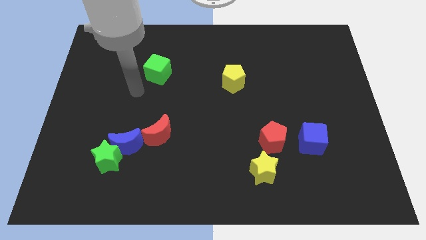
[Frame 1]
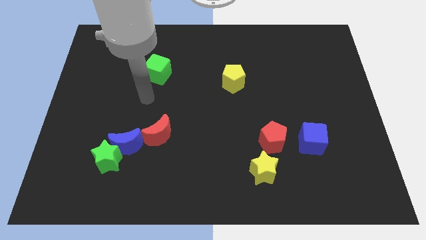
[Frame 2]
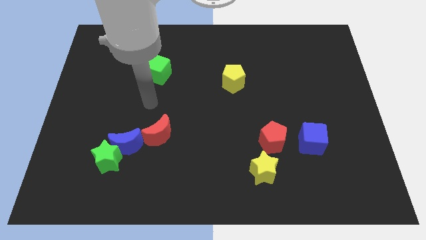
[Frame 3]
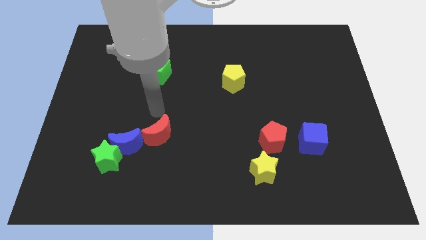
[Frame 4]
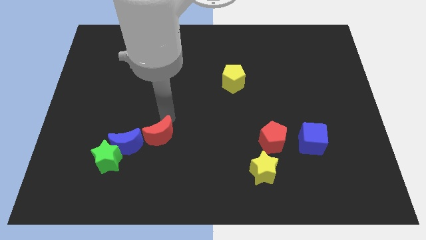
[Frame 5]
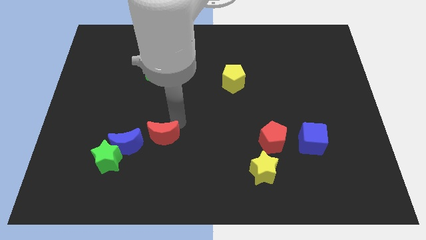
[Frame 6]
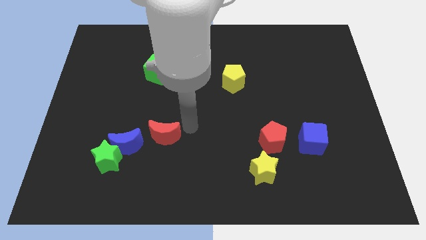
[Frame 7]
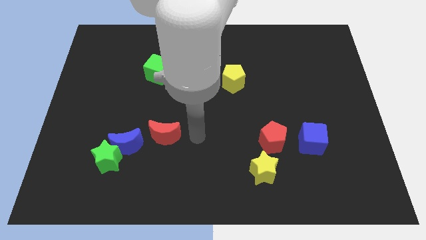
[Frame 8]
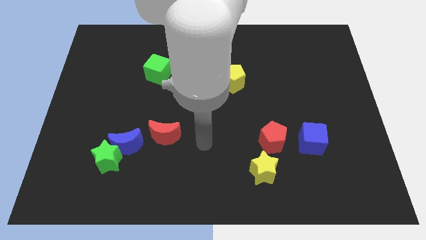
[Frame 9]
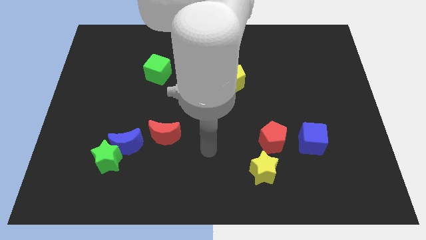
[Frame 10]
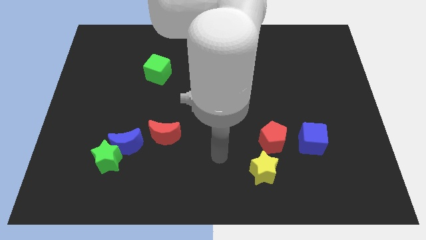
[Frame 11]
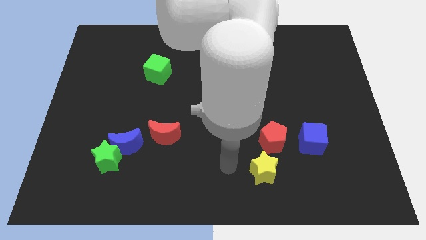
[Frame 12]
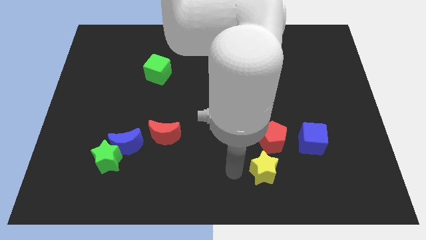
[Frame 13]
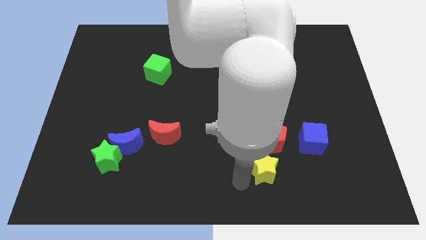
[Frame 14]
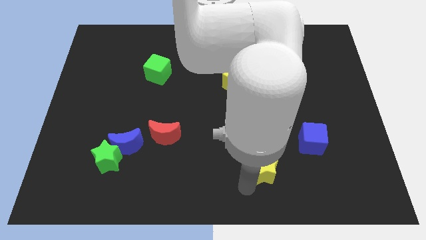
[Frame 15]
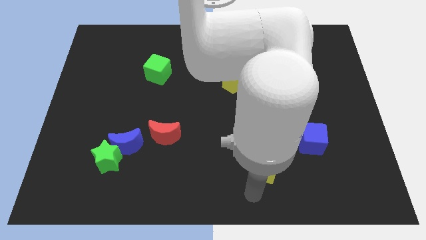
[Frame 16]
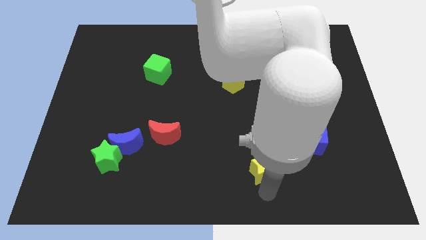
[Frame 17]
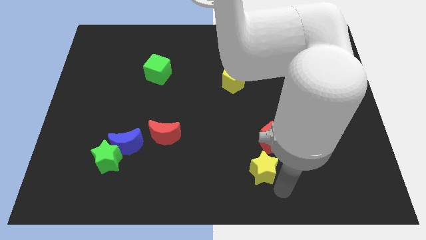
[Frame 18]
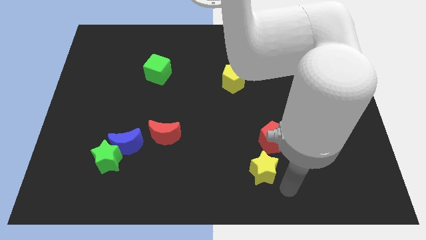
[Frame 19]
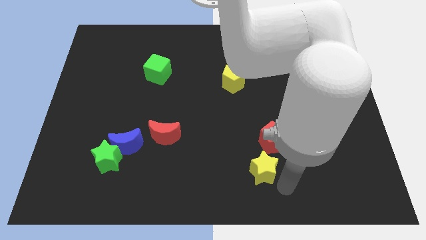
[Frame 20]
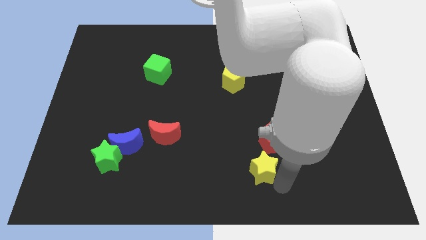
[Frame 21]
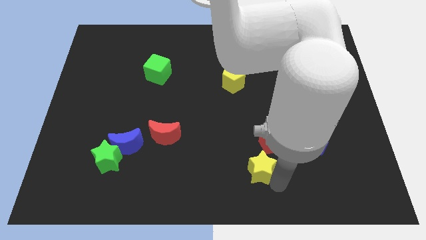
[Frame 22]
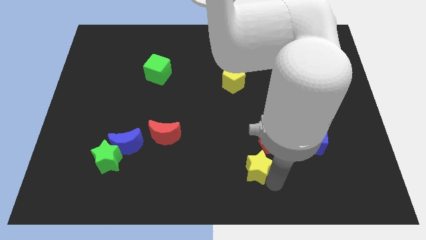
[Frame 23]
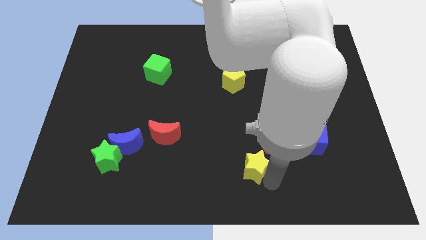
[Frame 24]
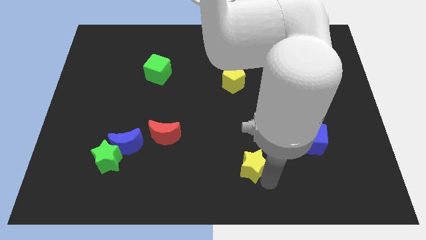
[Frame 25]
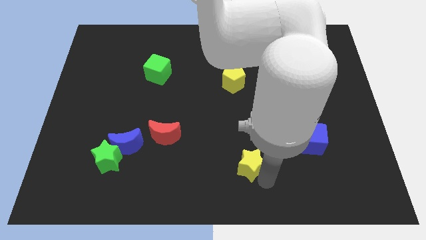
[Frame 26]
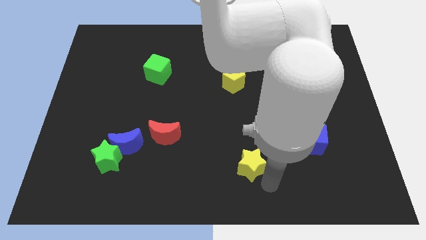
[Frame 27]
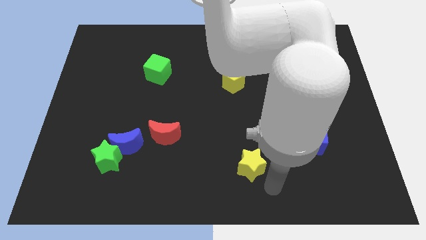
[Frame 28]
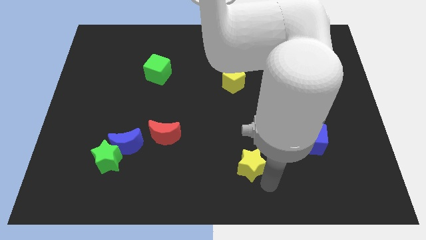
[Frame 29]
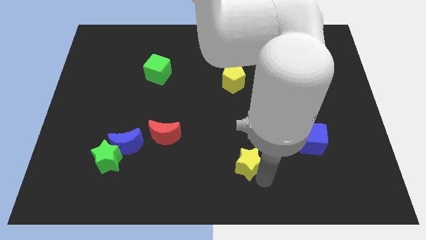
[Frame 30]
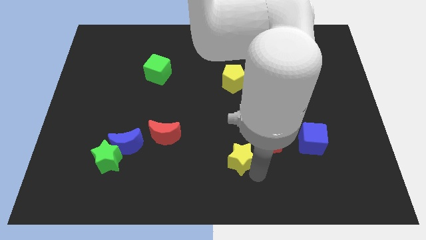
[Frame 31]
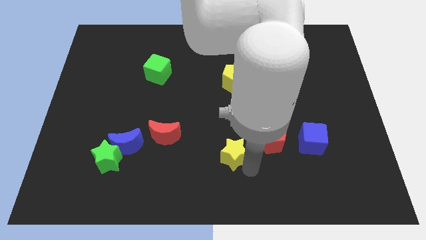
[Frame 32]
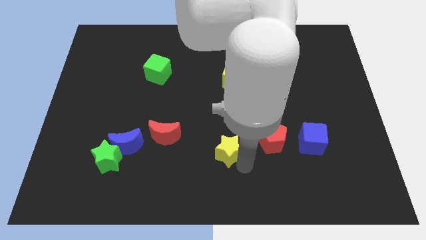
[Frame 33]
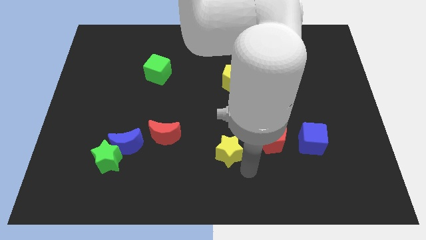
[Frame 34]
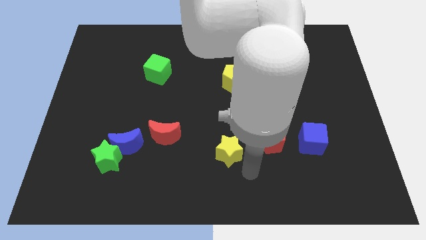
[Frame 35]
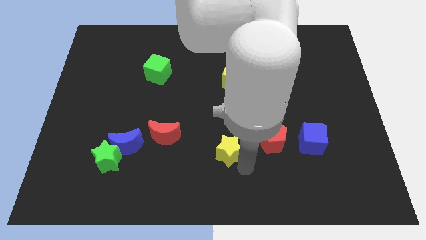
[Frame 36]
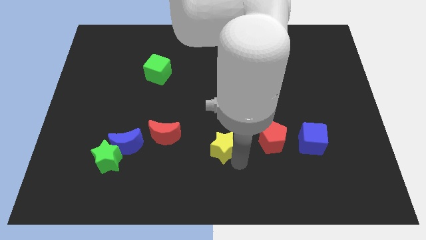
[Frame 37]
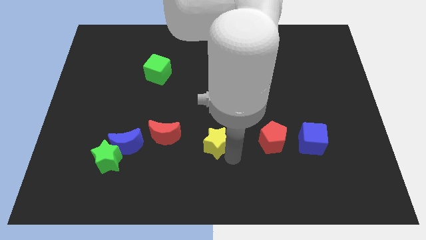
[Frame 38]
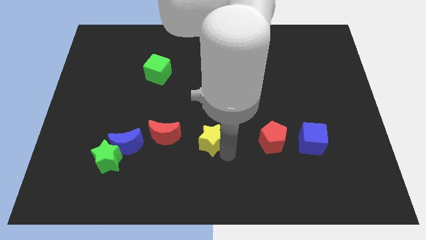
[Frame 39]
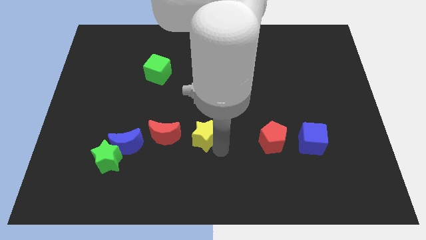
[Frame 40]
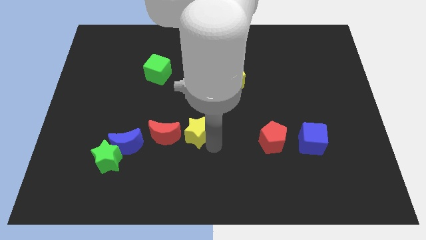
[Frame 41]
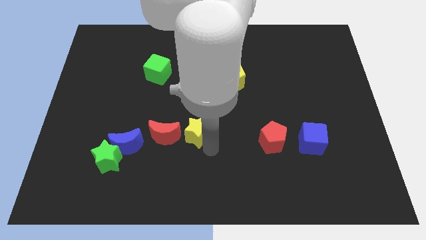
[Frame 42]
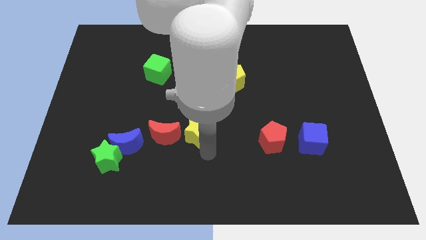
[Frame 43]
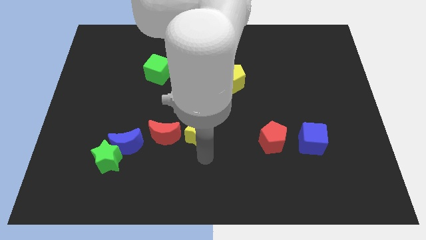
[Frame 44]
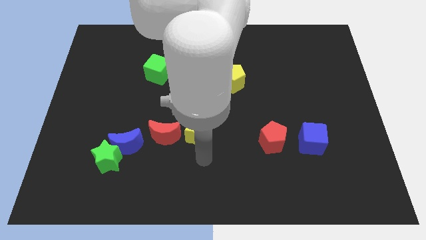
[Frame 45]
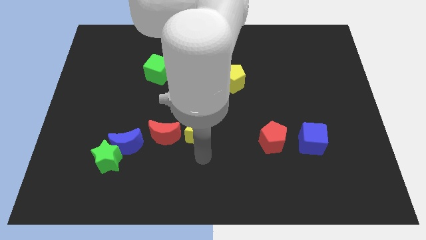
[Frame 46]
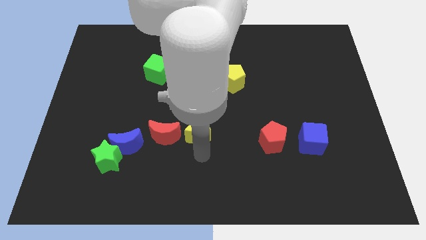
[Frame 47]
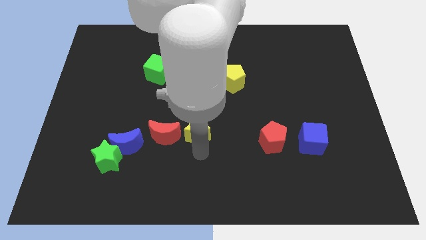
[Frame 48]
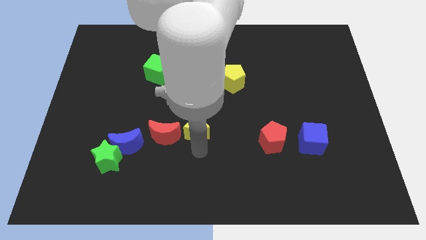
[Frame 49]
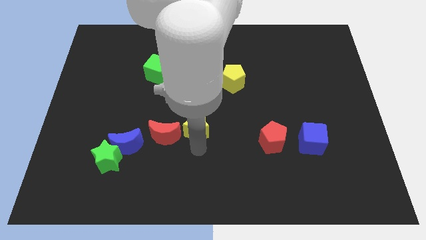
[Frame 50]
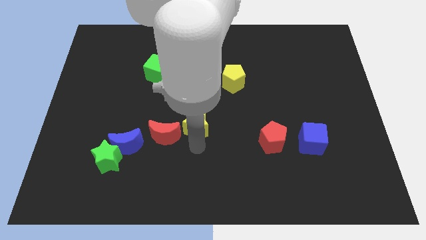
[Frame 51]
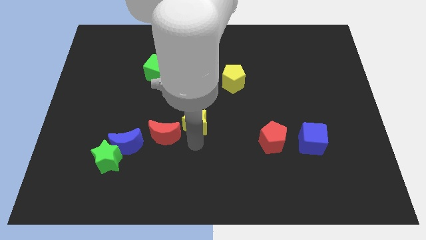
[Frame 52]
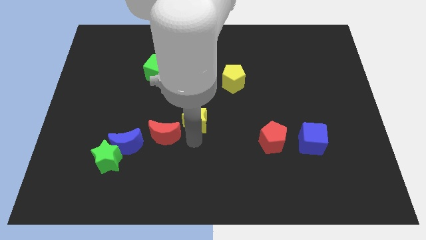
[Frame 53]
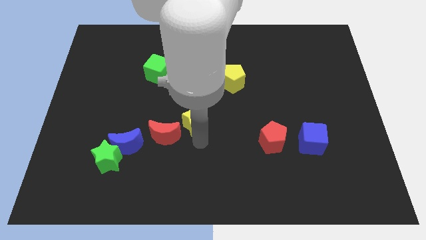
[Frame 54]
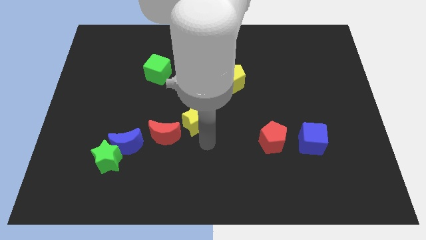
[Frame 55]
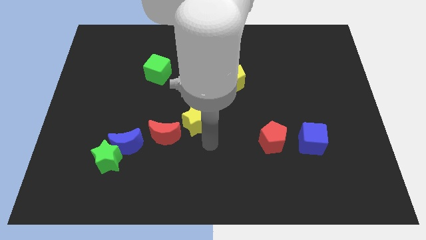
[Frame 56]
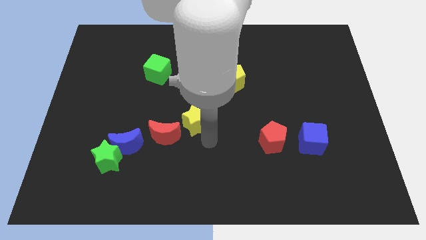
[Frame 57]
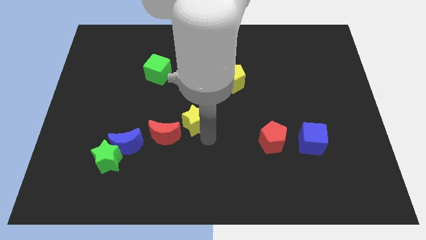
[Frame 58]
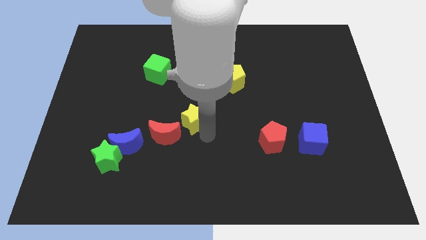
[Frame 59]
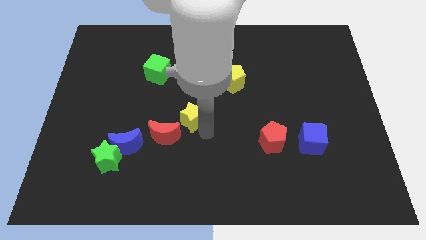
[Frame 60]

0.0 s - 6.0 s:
push the yellow star diagonally up and left

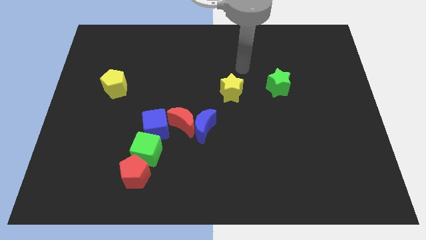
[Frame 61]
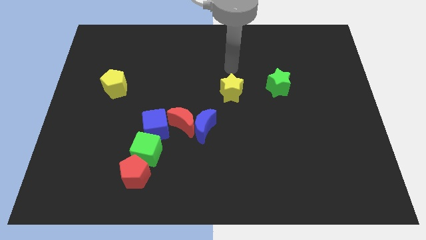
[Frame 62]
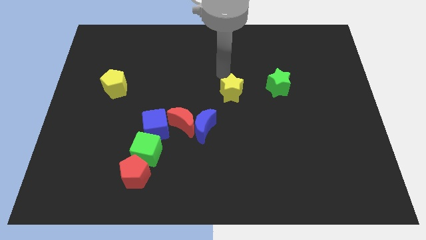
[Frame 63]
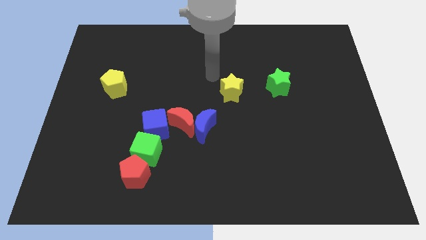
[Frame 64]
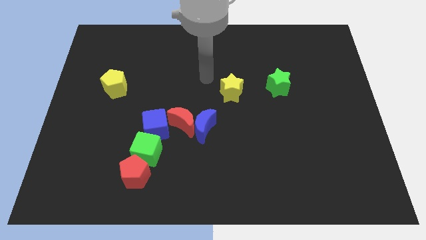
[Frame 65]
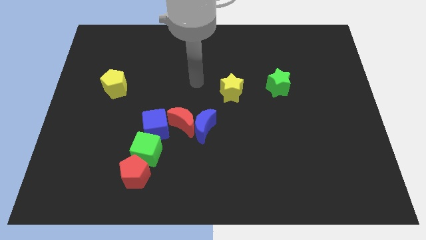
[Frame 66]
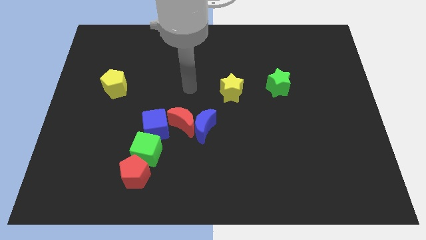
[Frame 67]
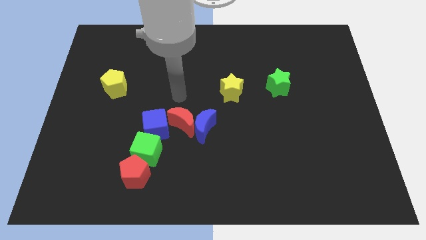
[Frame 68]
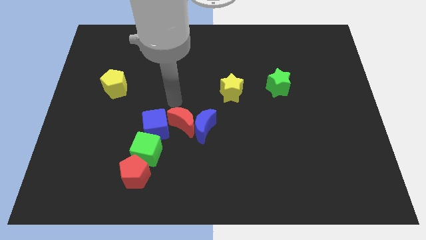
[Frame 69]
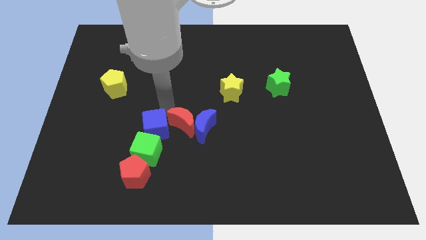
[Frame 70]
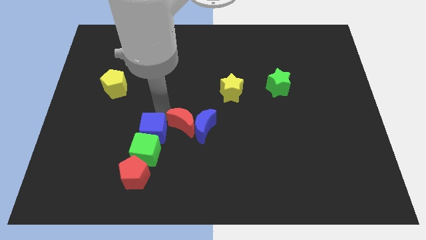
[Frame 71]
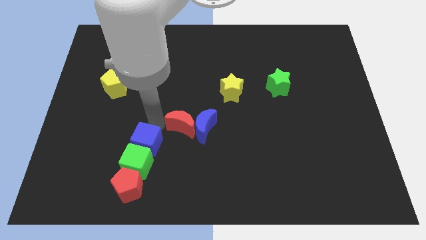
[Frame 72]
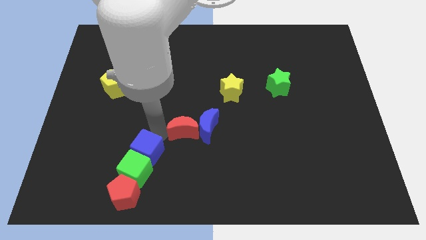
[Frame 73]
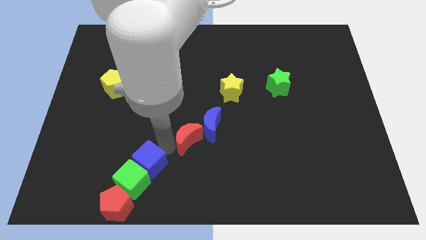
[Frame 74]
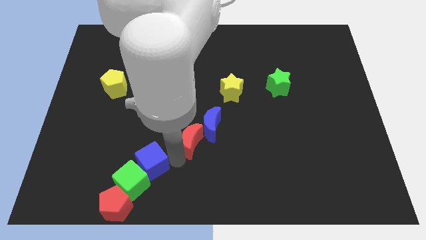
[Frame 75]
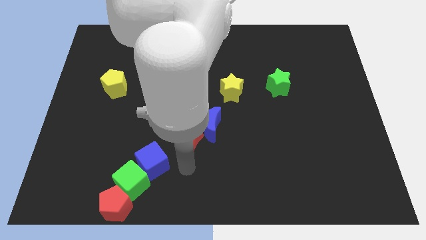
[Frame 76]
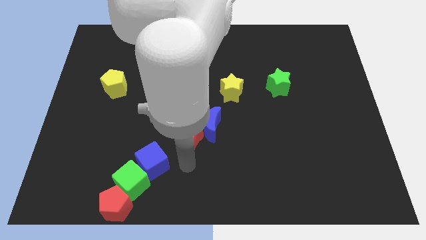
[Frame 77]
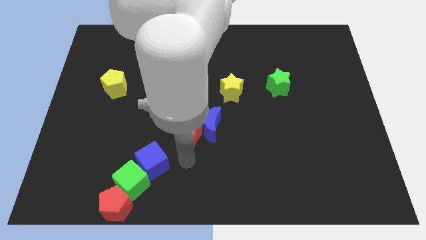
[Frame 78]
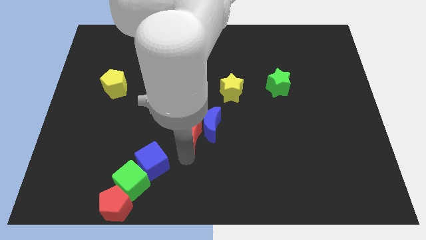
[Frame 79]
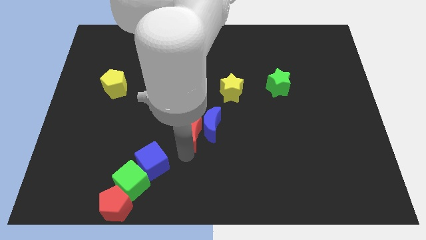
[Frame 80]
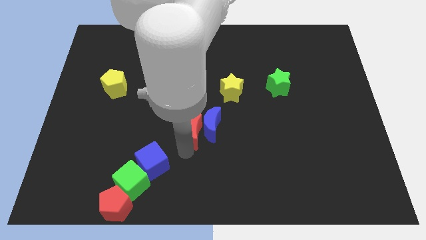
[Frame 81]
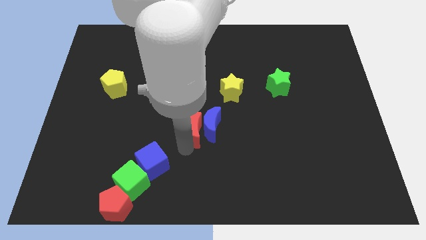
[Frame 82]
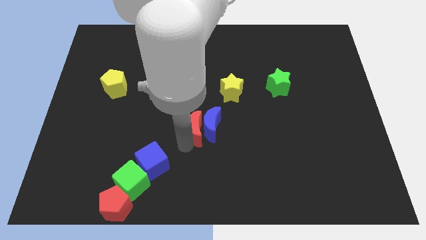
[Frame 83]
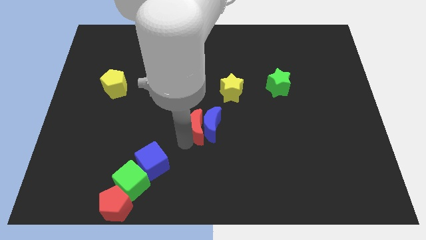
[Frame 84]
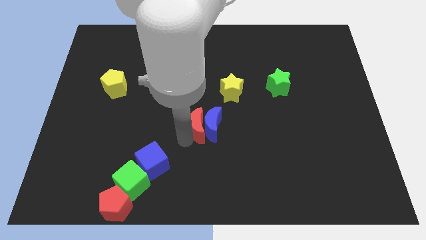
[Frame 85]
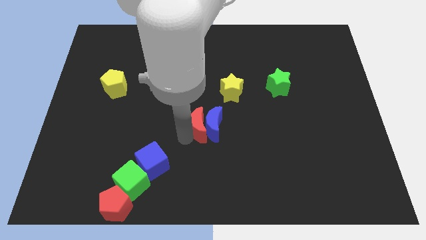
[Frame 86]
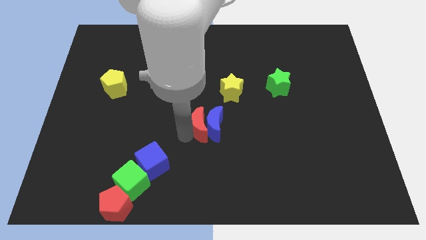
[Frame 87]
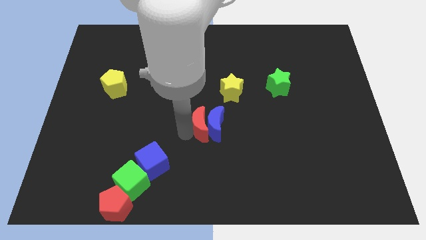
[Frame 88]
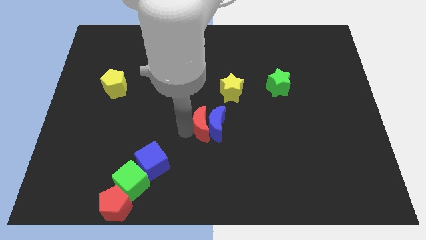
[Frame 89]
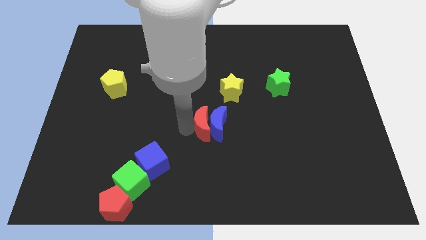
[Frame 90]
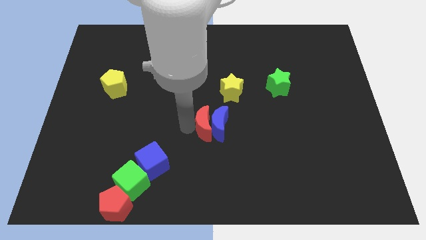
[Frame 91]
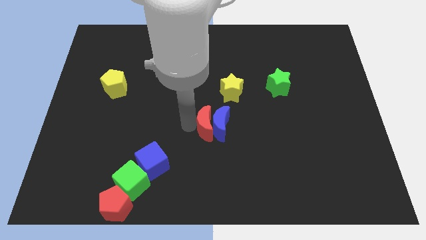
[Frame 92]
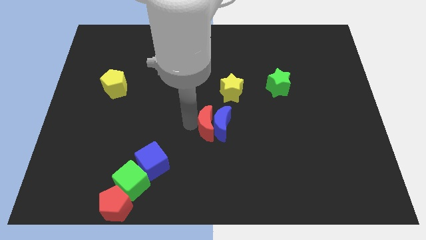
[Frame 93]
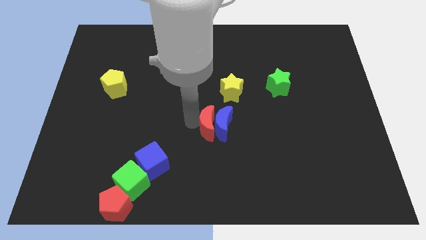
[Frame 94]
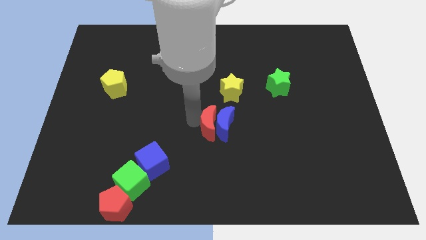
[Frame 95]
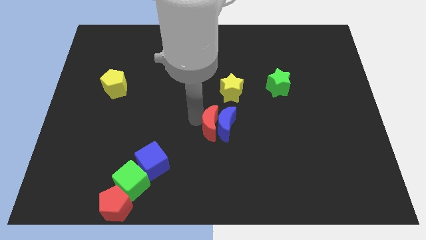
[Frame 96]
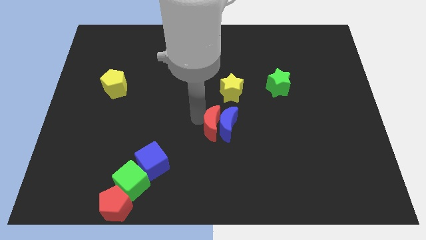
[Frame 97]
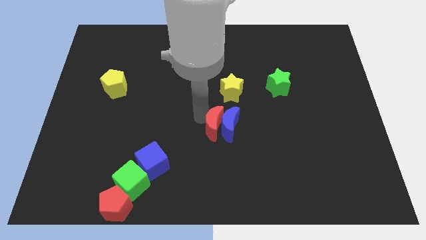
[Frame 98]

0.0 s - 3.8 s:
push the red moon a little bit to the right
